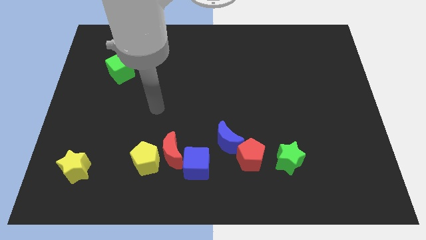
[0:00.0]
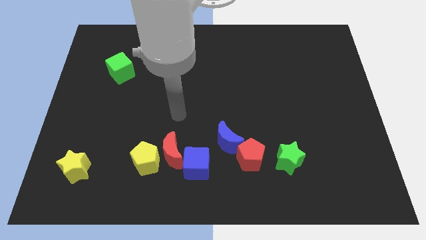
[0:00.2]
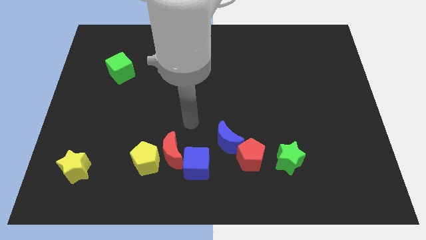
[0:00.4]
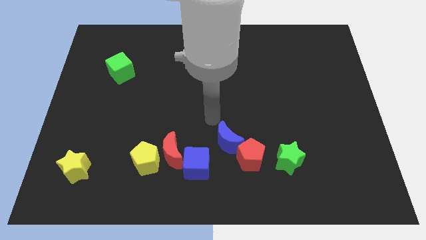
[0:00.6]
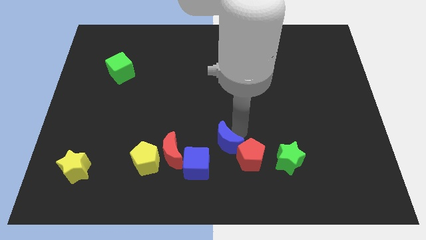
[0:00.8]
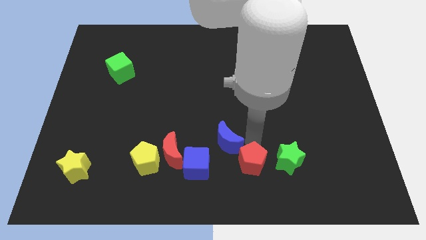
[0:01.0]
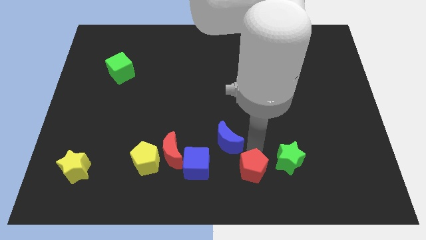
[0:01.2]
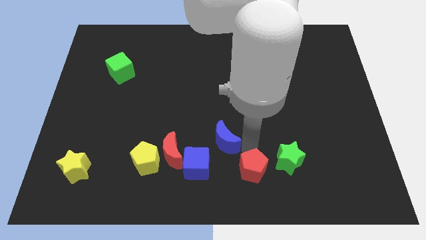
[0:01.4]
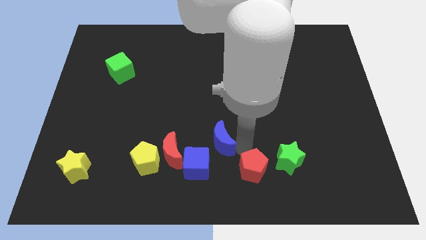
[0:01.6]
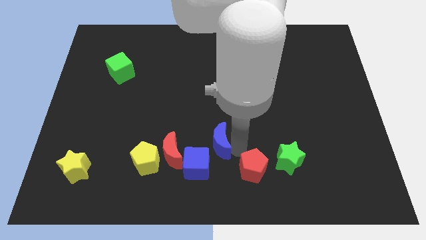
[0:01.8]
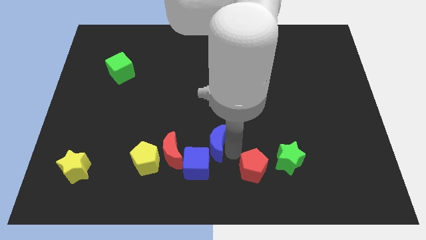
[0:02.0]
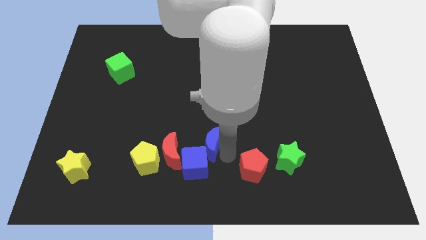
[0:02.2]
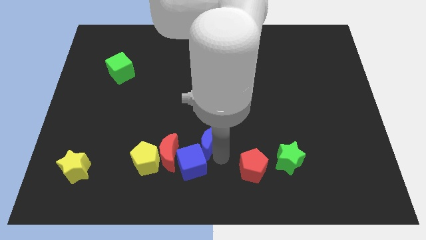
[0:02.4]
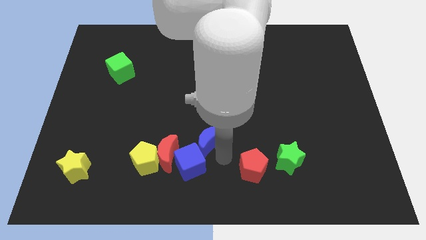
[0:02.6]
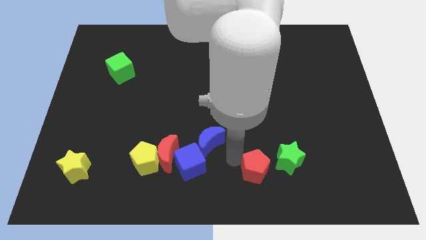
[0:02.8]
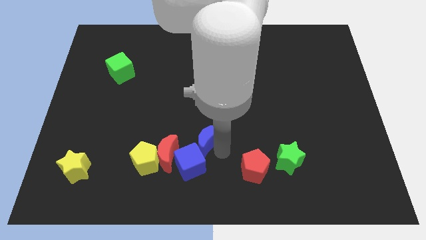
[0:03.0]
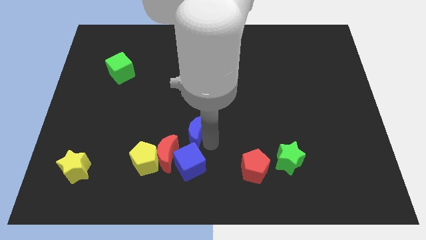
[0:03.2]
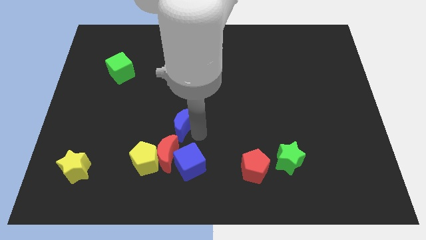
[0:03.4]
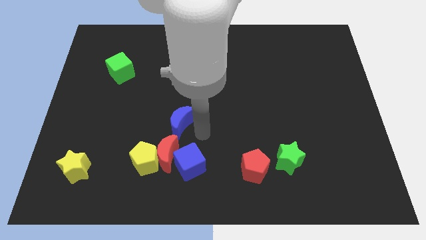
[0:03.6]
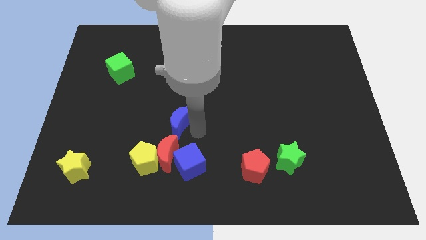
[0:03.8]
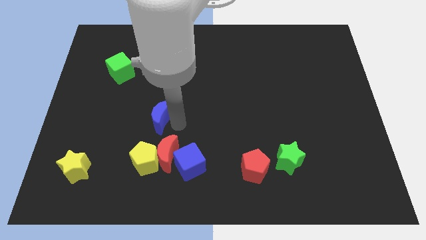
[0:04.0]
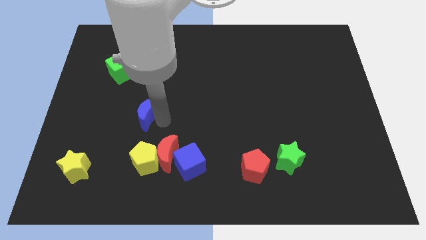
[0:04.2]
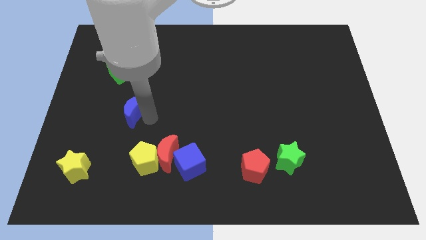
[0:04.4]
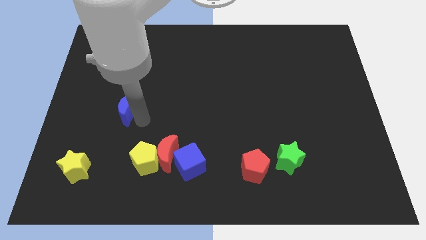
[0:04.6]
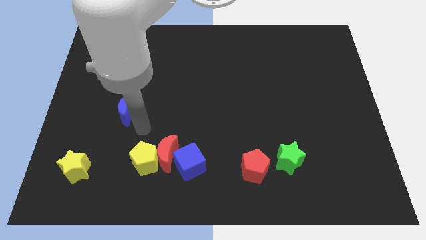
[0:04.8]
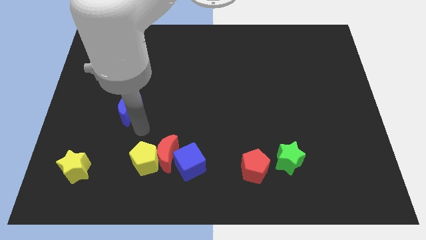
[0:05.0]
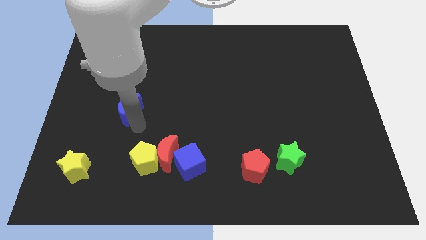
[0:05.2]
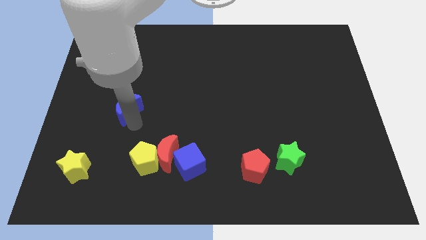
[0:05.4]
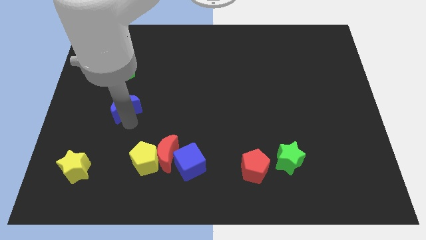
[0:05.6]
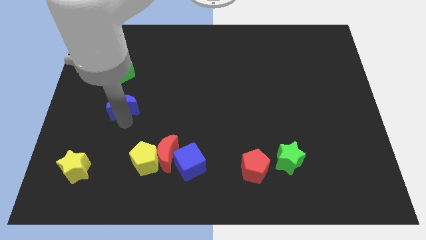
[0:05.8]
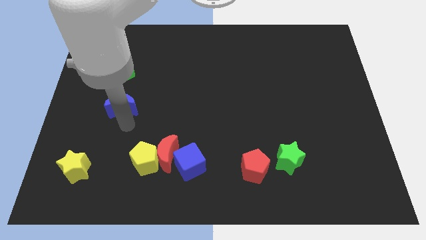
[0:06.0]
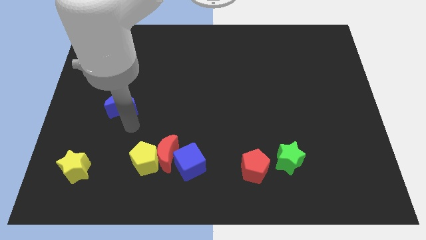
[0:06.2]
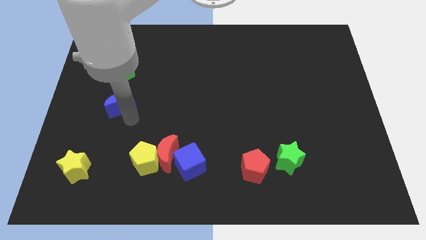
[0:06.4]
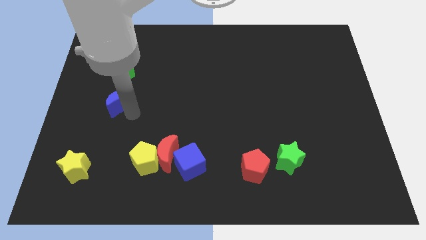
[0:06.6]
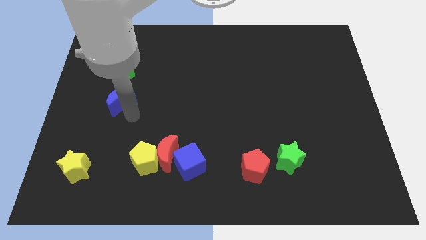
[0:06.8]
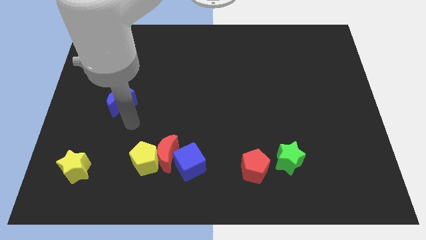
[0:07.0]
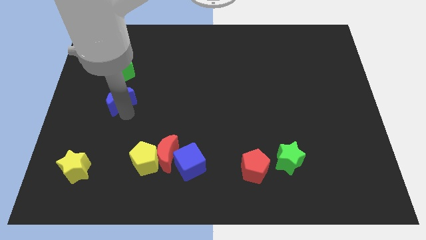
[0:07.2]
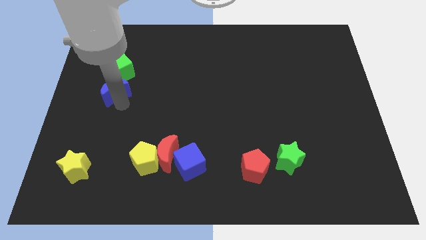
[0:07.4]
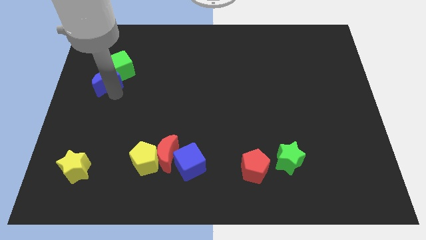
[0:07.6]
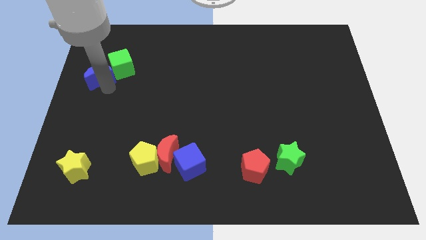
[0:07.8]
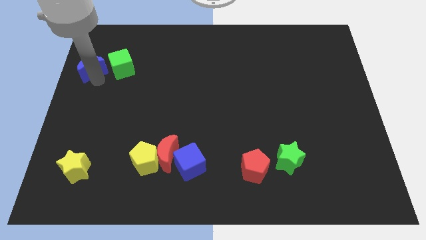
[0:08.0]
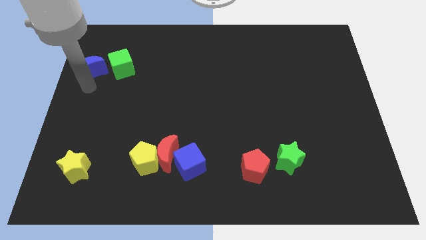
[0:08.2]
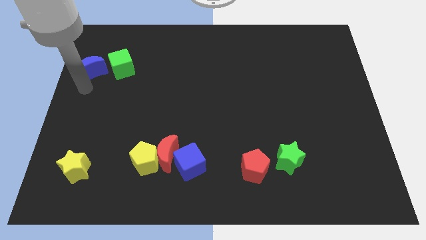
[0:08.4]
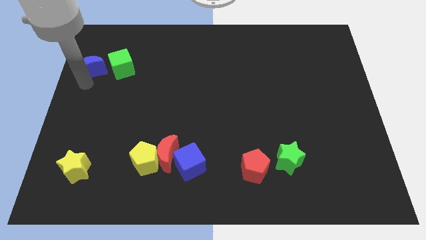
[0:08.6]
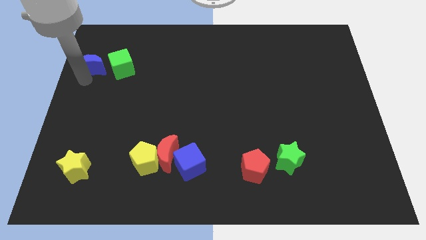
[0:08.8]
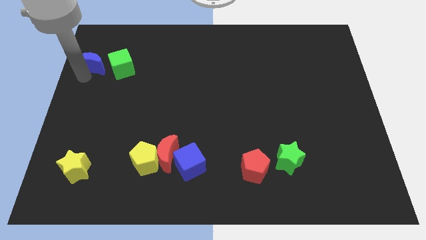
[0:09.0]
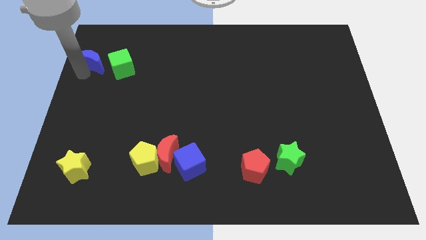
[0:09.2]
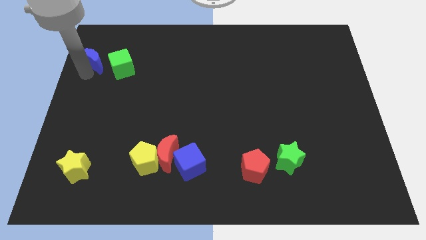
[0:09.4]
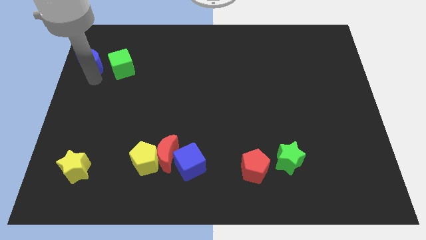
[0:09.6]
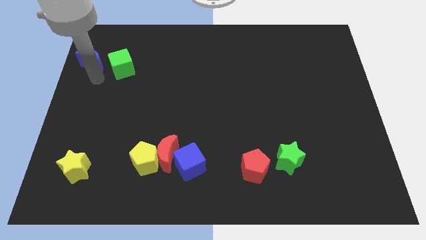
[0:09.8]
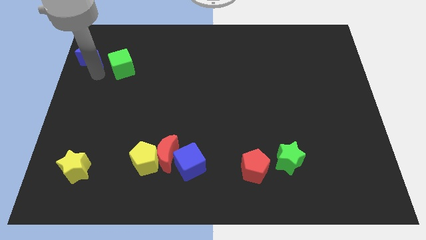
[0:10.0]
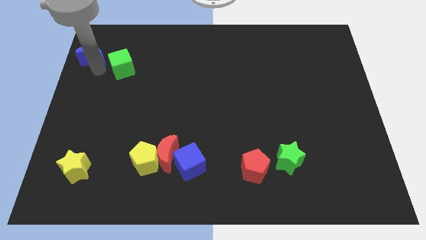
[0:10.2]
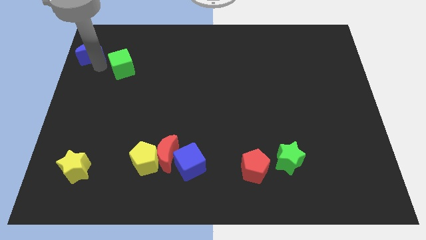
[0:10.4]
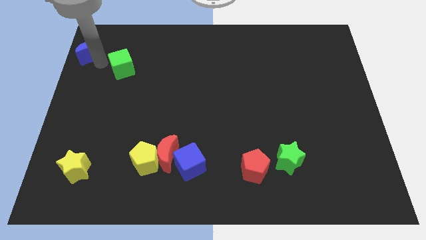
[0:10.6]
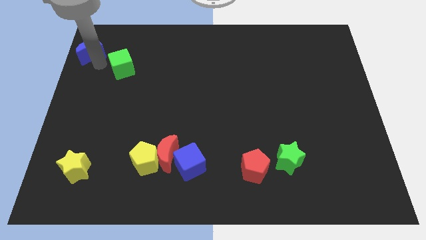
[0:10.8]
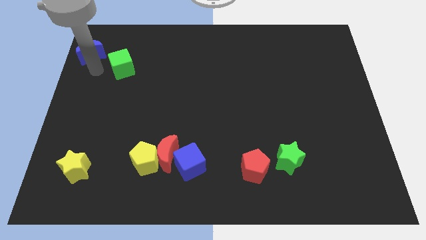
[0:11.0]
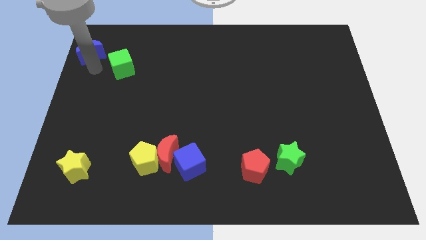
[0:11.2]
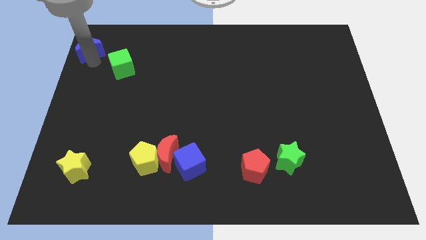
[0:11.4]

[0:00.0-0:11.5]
slide the blue moon to the top left

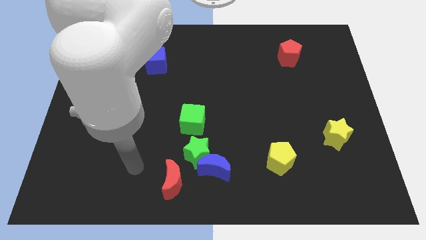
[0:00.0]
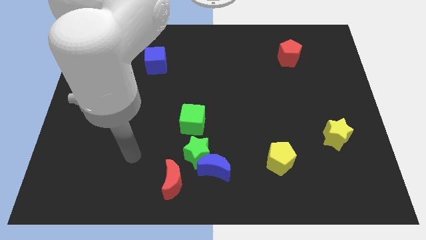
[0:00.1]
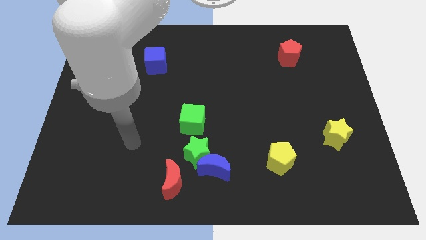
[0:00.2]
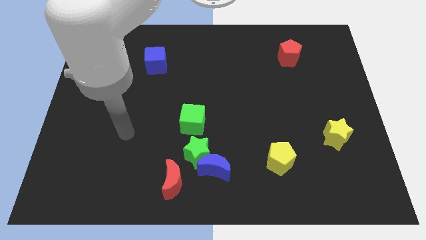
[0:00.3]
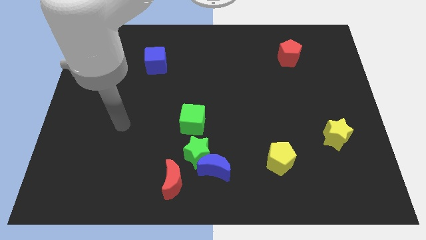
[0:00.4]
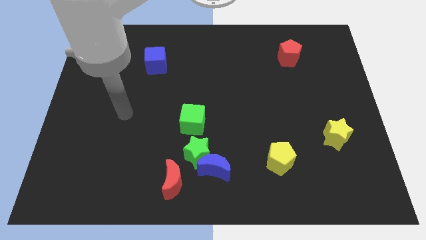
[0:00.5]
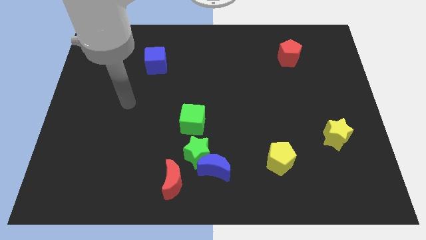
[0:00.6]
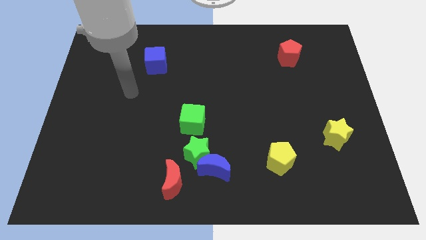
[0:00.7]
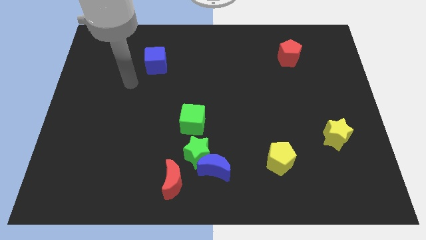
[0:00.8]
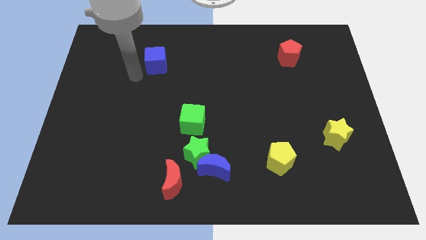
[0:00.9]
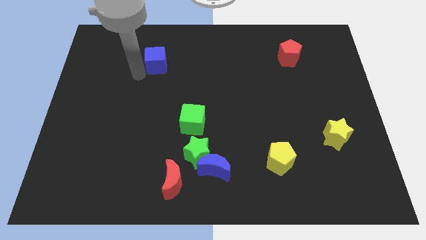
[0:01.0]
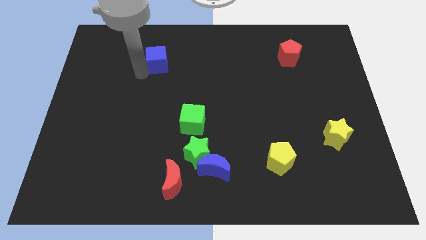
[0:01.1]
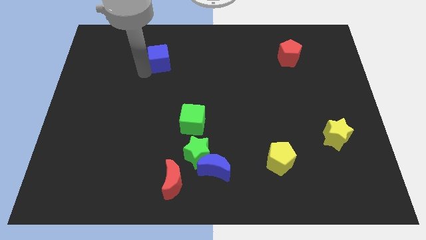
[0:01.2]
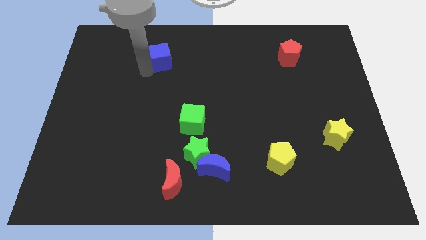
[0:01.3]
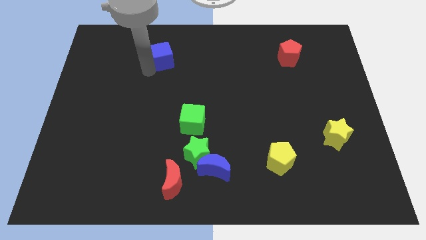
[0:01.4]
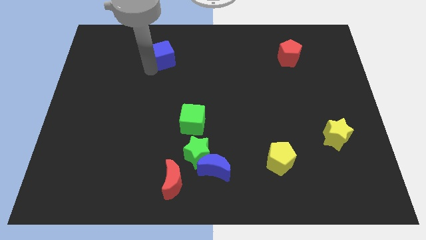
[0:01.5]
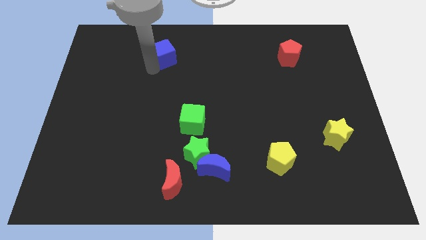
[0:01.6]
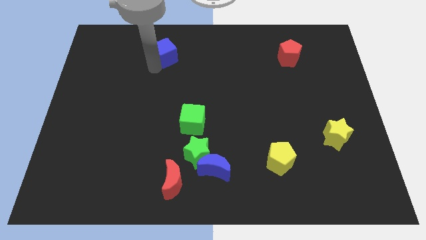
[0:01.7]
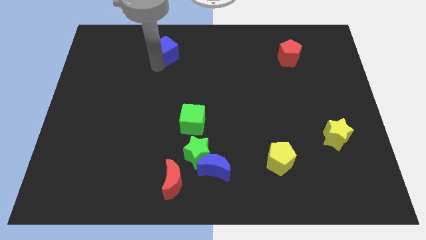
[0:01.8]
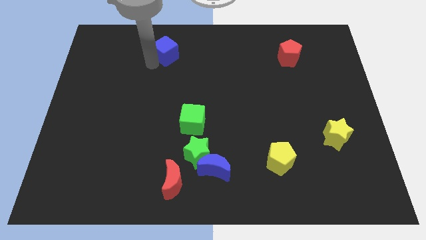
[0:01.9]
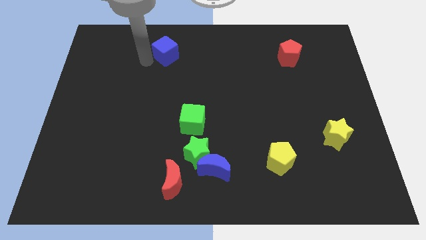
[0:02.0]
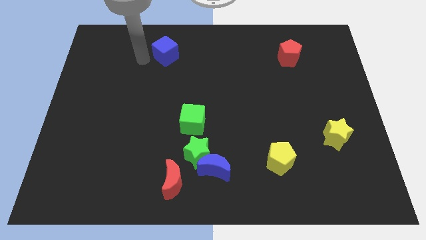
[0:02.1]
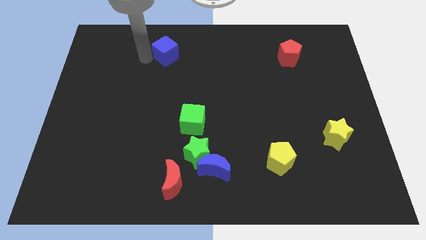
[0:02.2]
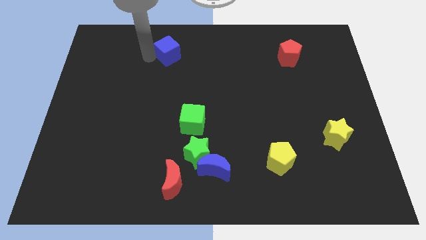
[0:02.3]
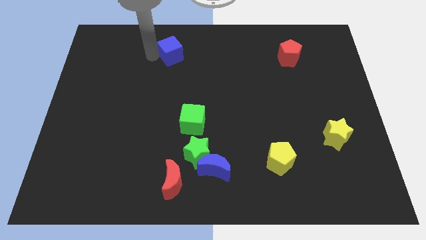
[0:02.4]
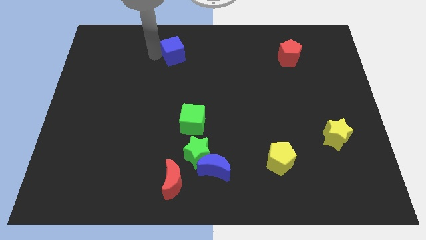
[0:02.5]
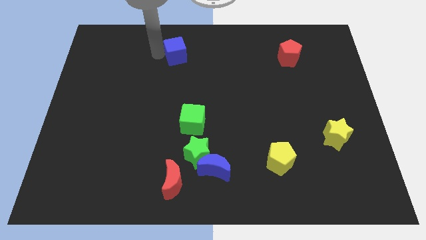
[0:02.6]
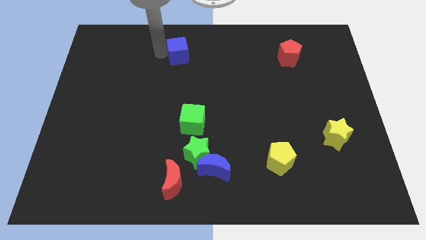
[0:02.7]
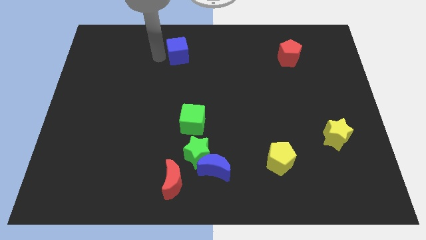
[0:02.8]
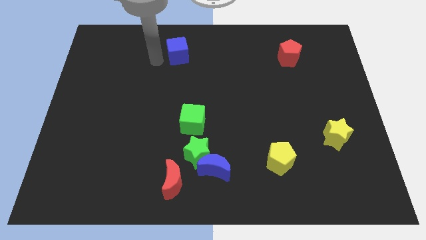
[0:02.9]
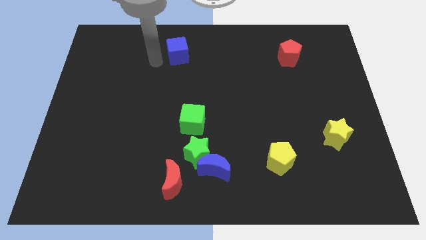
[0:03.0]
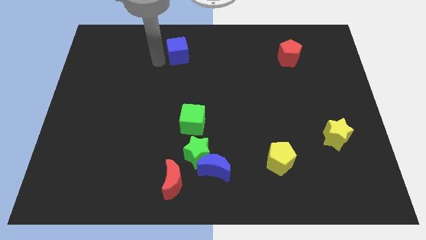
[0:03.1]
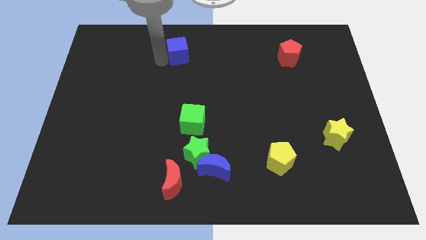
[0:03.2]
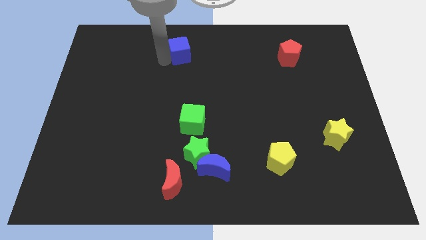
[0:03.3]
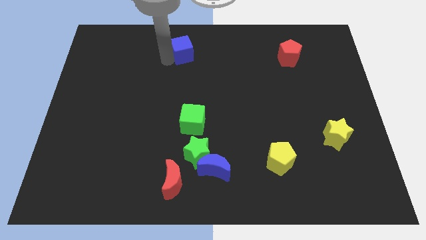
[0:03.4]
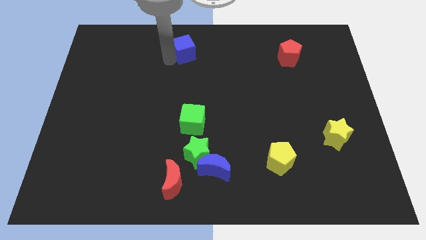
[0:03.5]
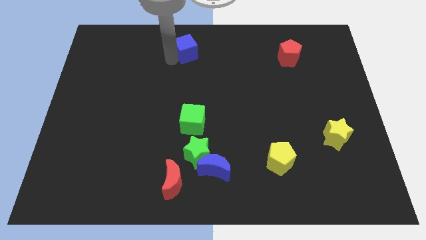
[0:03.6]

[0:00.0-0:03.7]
move the blue cube to the top side
